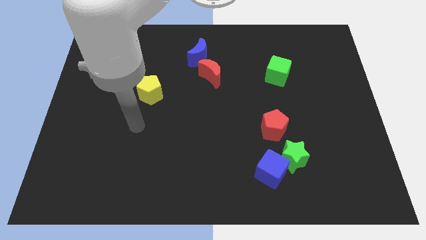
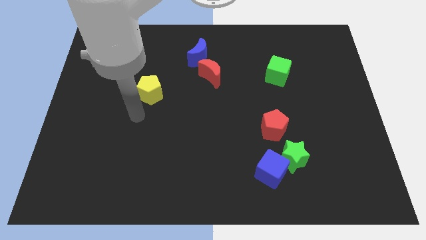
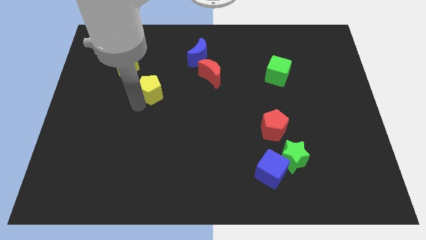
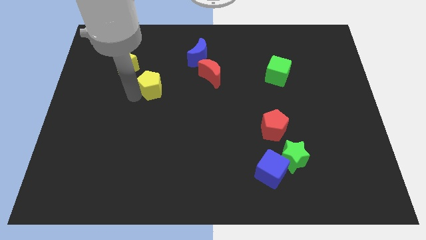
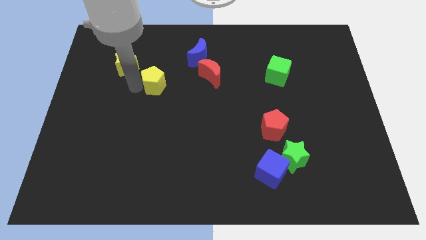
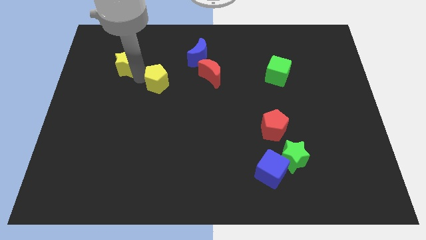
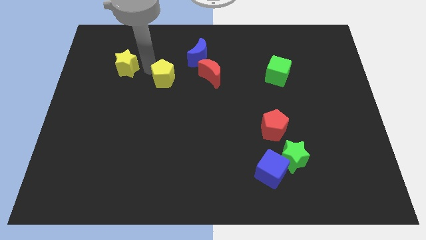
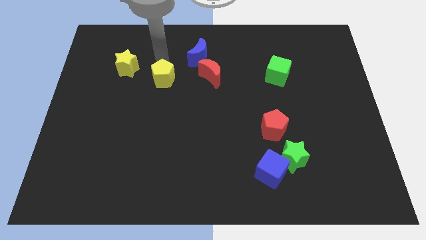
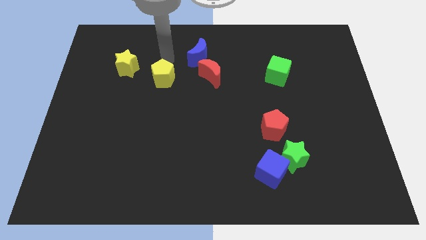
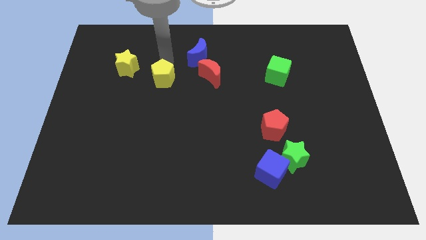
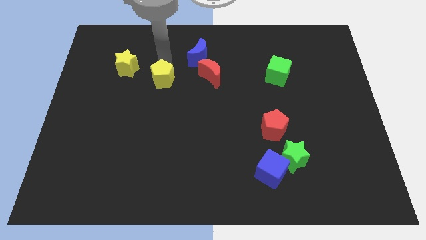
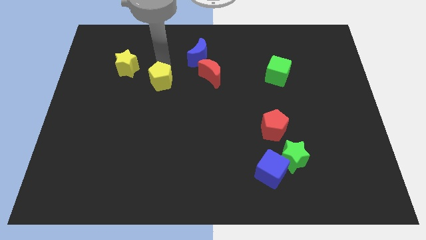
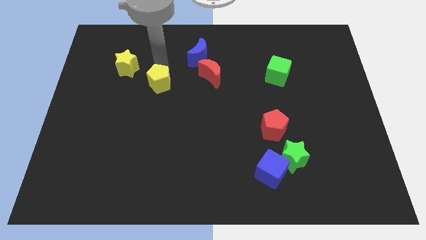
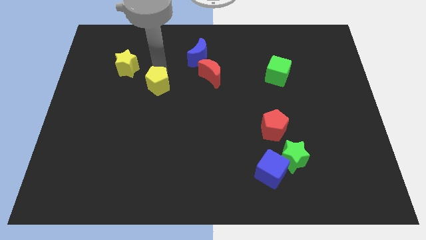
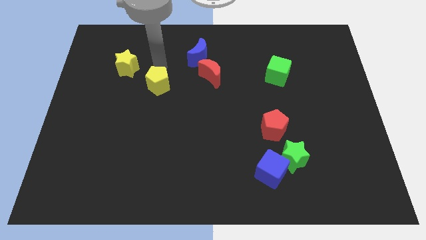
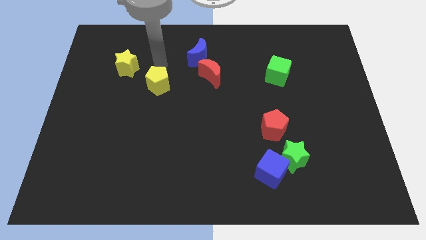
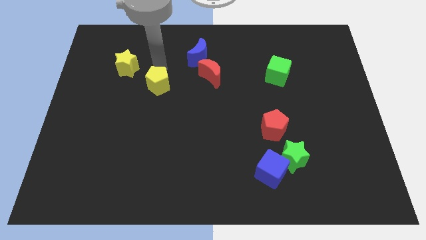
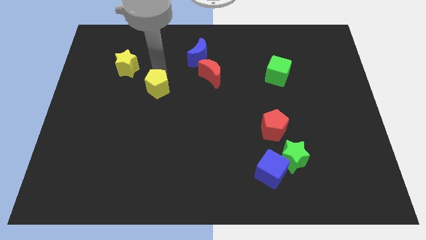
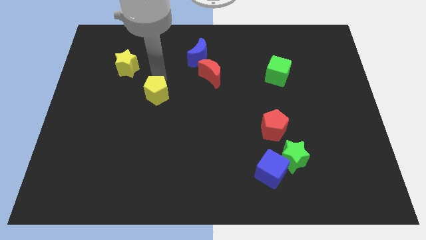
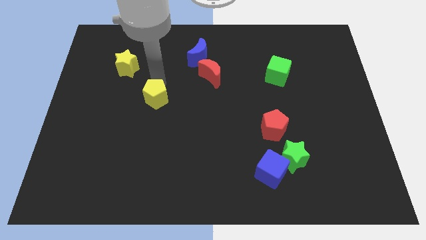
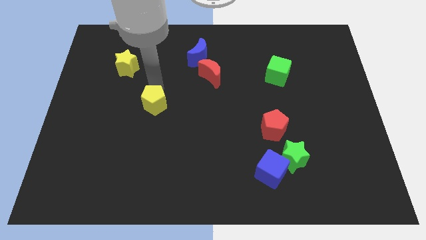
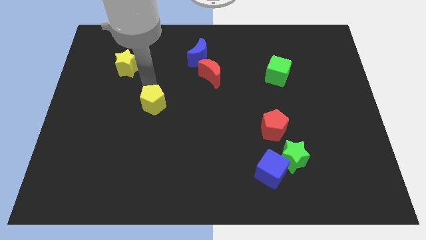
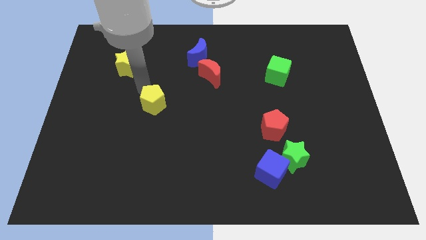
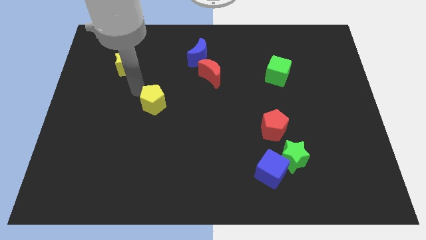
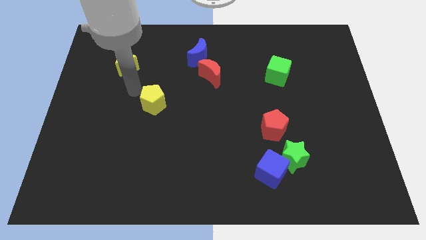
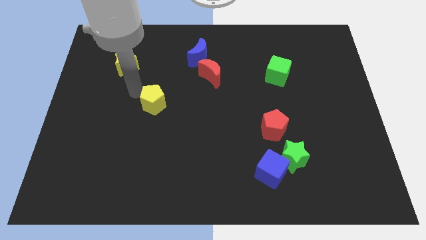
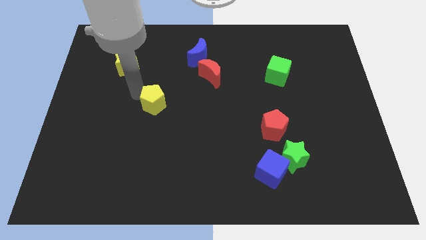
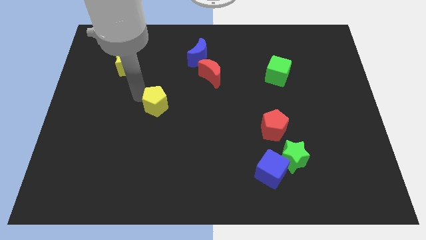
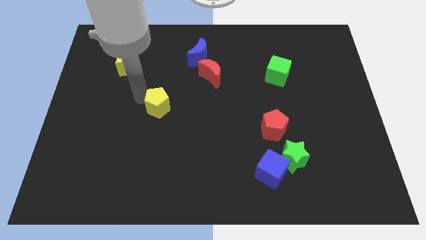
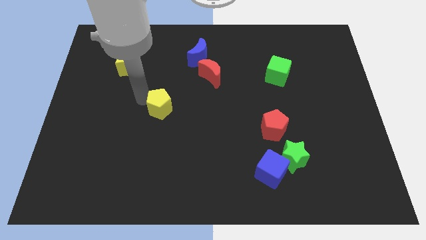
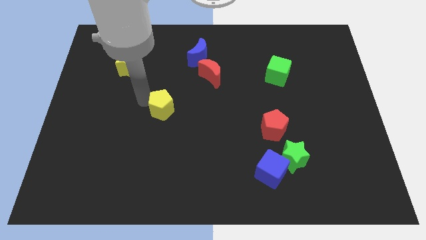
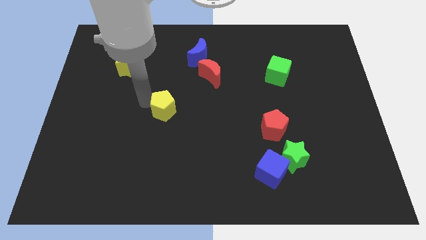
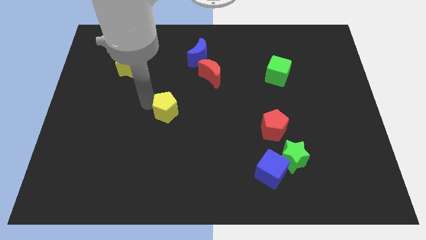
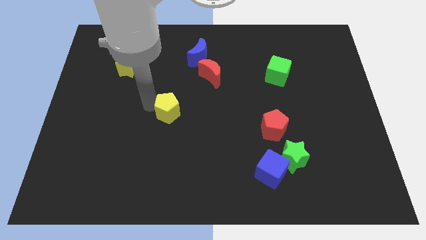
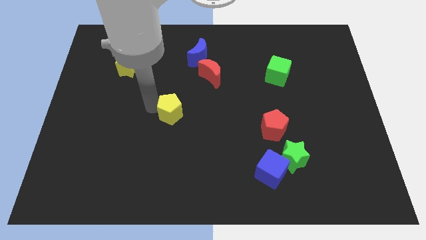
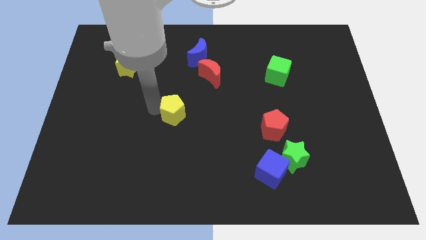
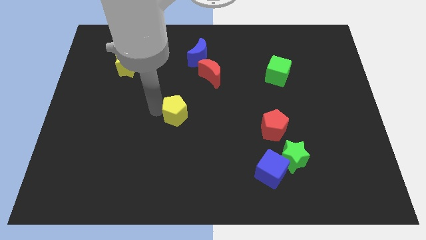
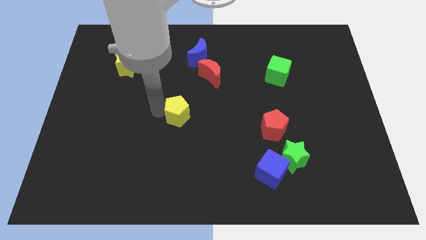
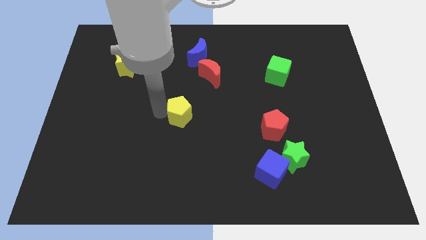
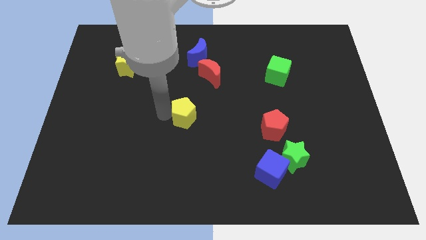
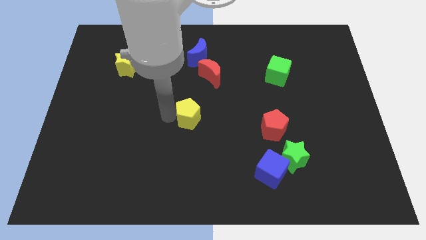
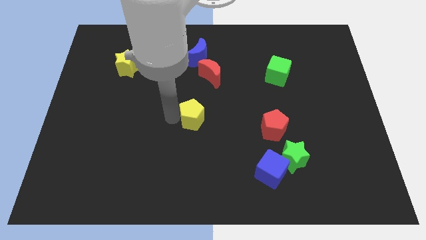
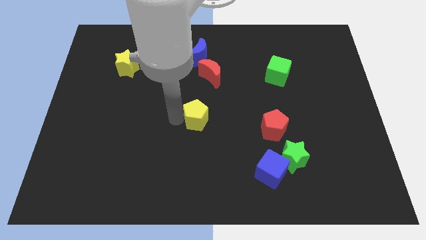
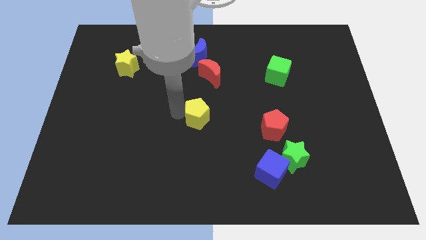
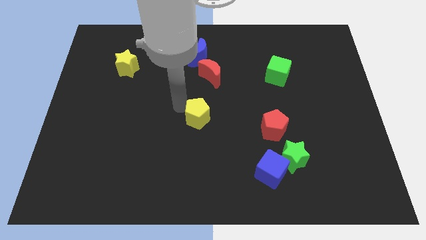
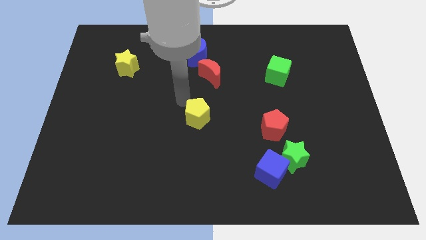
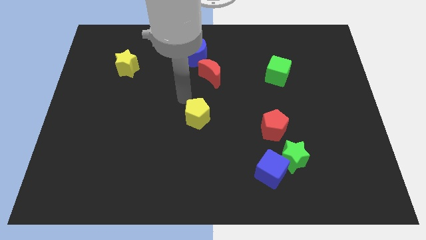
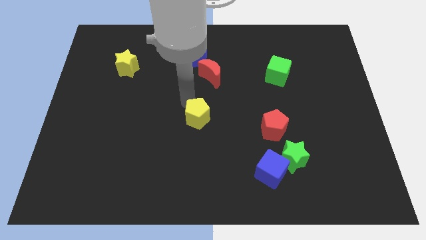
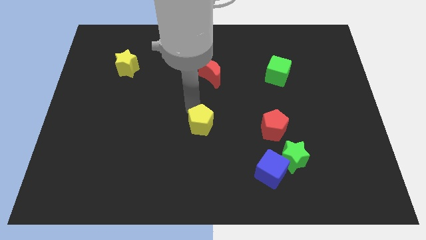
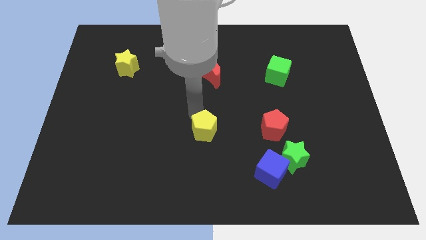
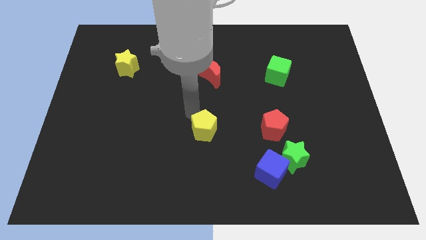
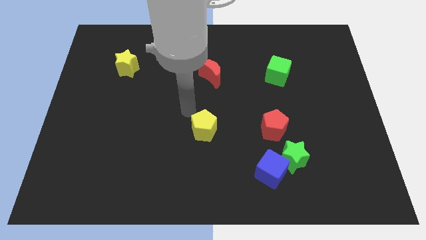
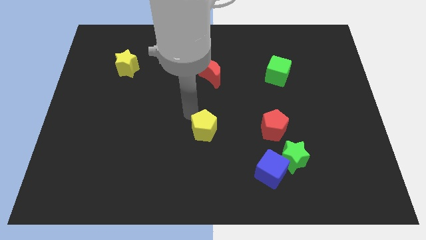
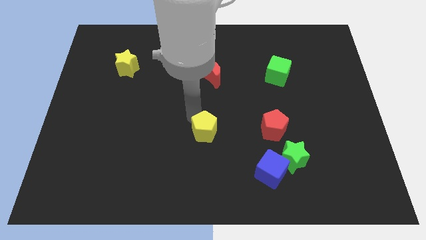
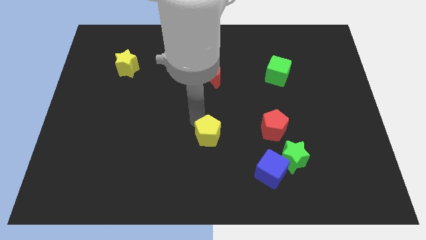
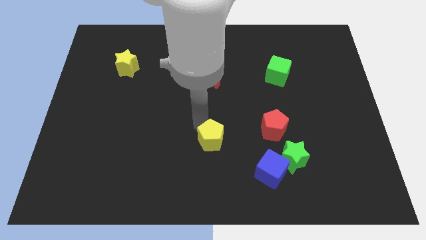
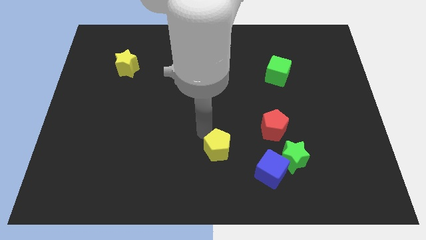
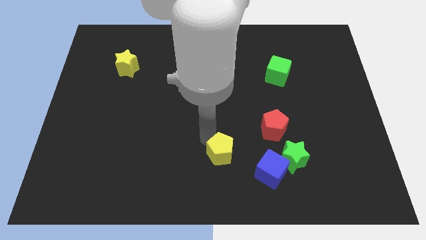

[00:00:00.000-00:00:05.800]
put the yellow pentagon to the top left of the blue cube

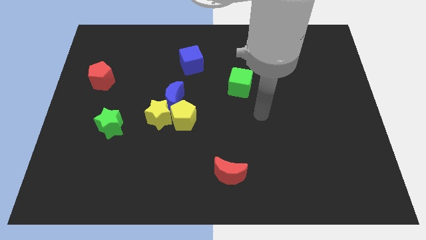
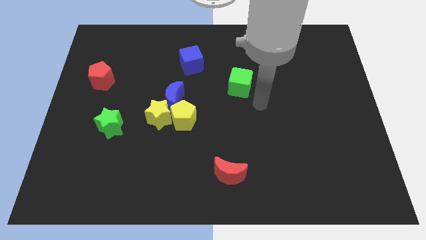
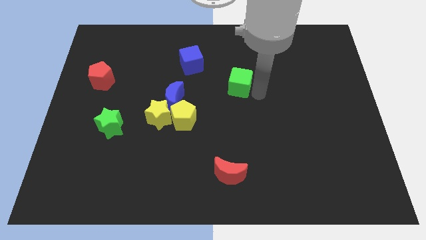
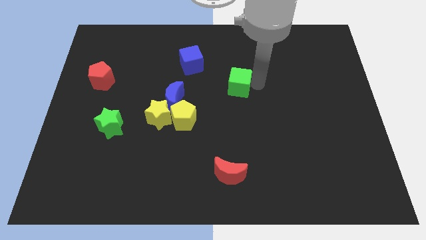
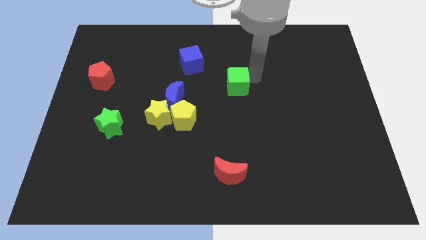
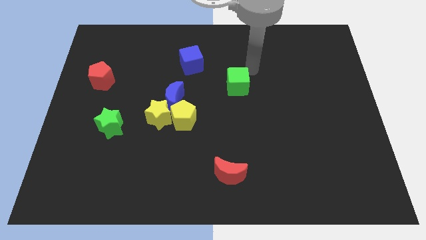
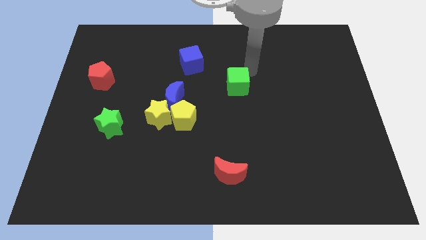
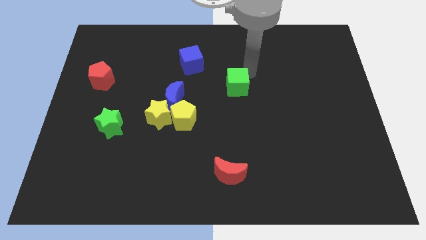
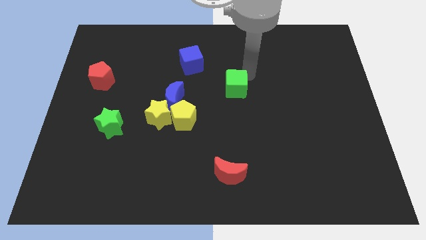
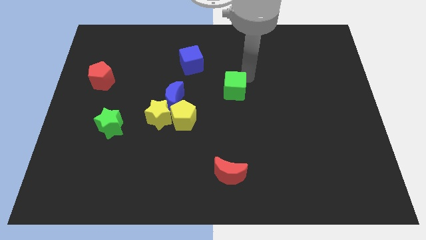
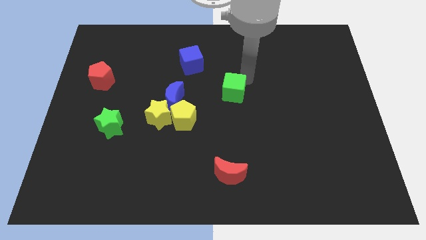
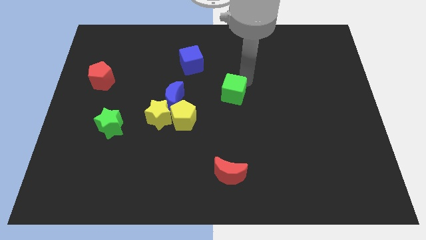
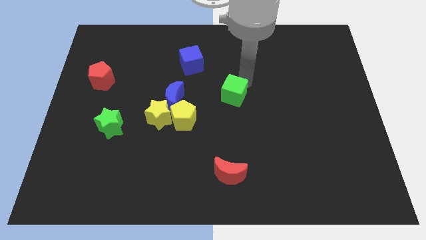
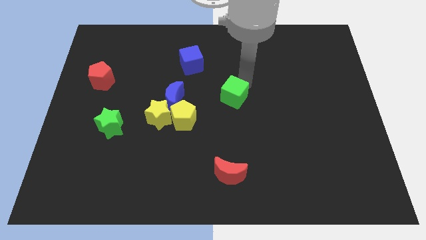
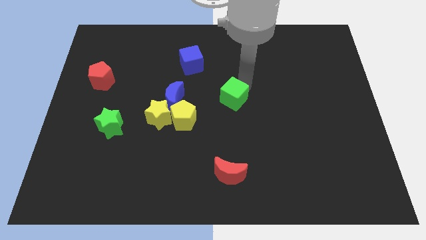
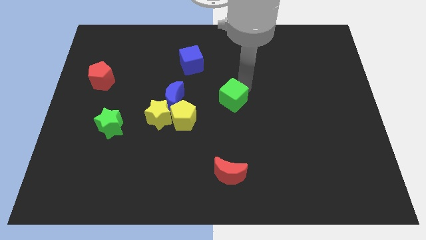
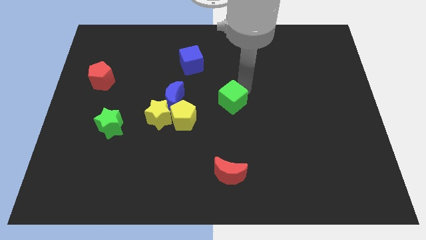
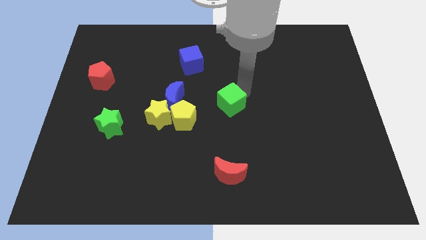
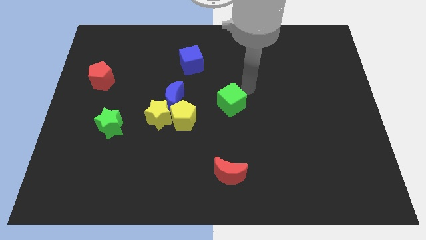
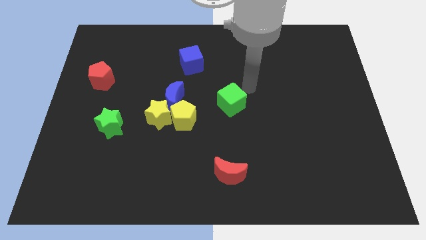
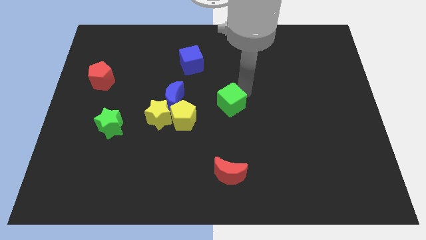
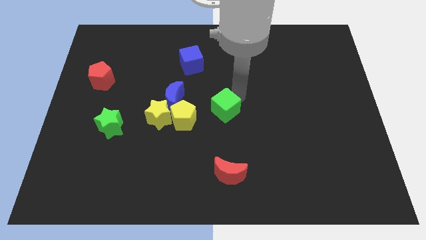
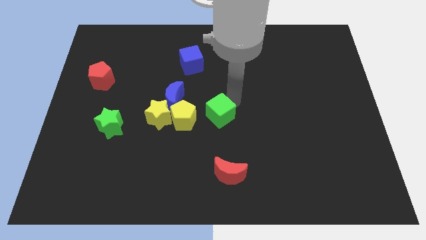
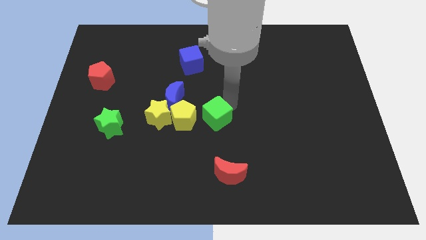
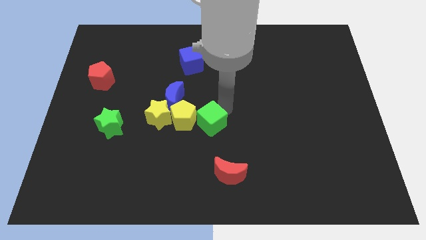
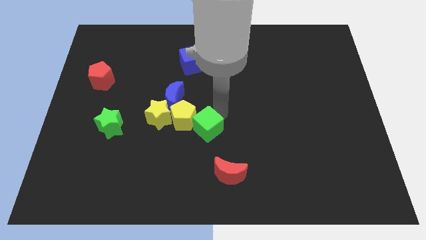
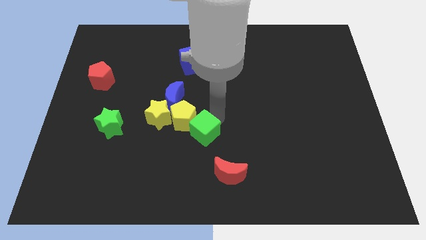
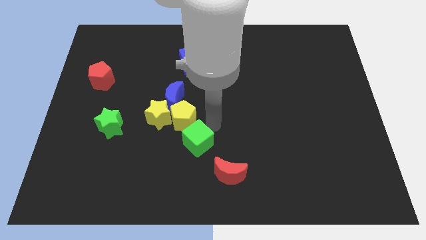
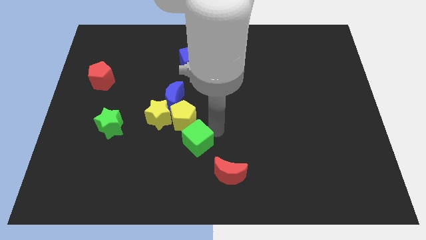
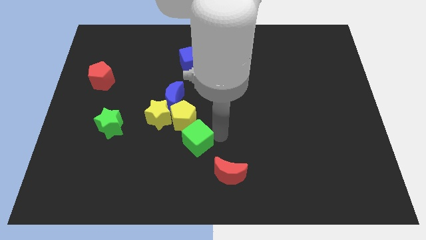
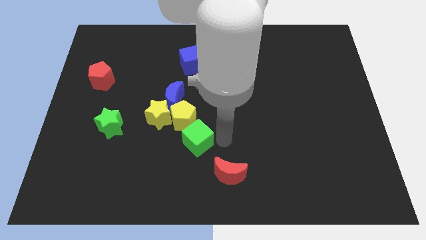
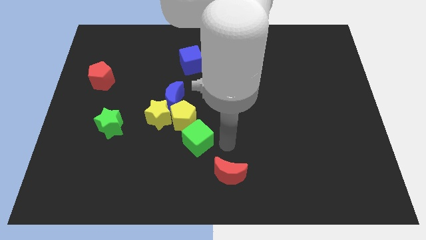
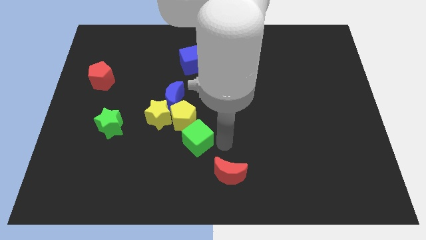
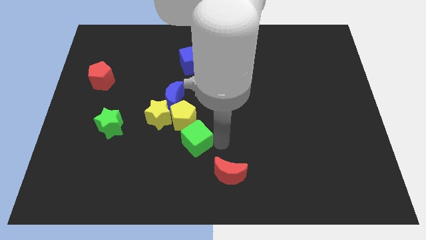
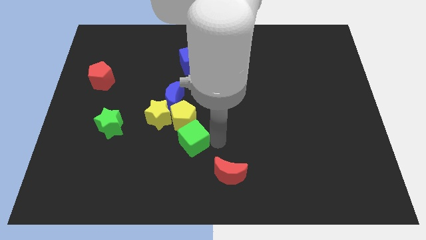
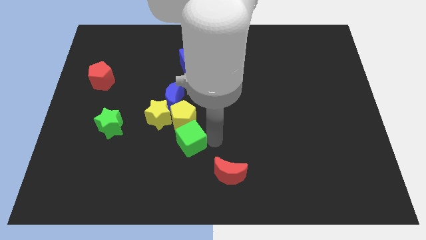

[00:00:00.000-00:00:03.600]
push the green cube to the bottom of the blue moon
